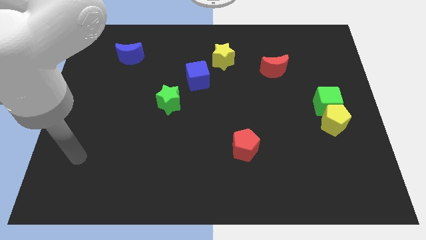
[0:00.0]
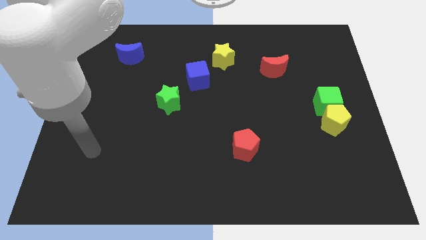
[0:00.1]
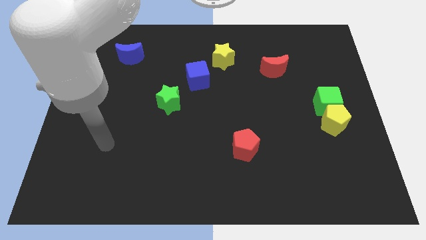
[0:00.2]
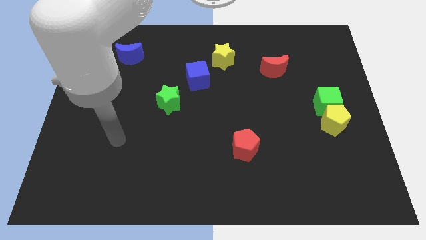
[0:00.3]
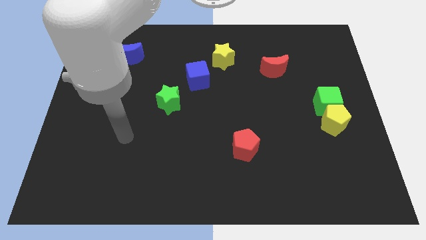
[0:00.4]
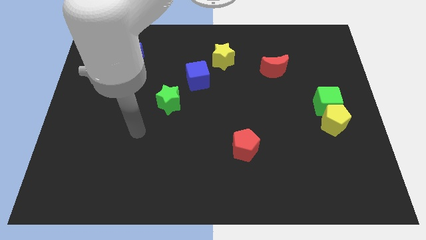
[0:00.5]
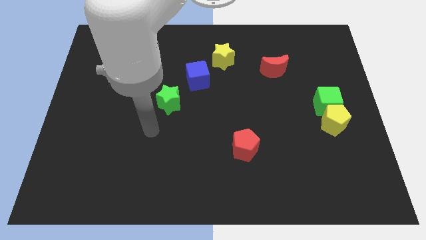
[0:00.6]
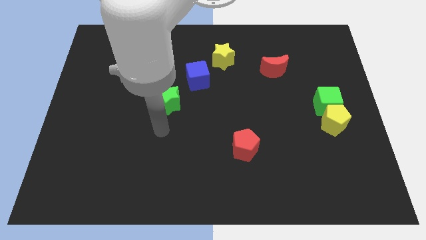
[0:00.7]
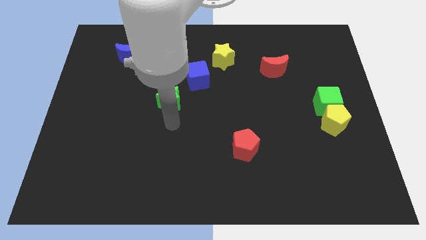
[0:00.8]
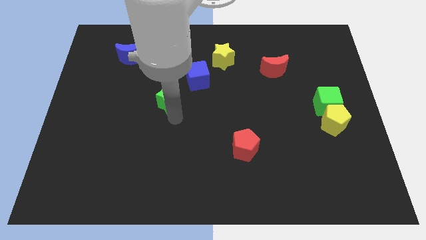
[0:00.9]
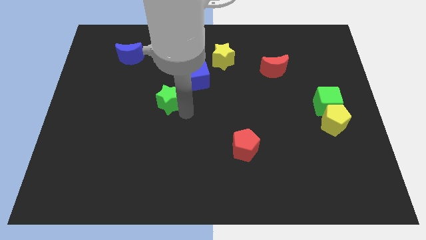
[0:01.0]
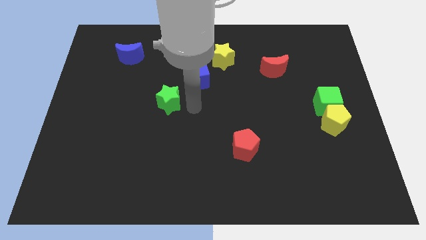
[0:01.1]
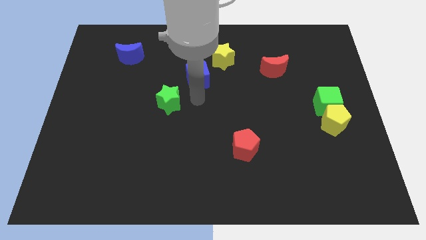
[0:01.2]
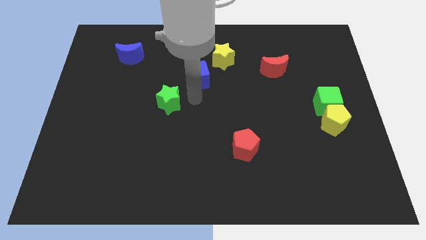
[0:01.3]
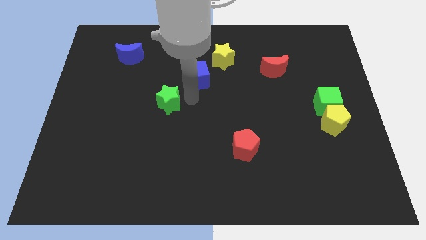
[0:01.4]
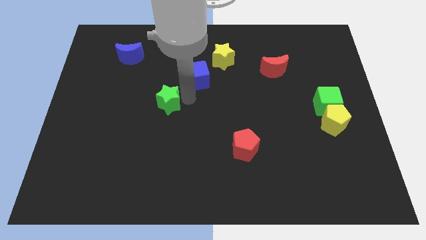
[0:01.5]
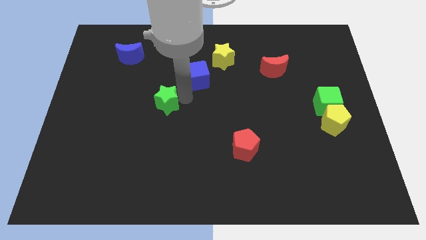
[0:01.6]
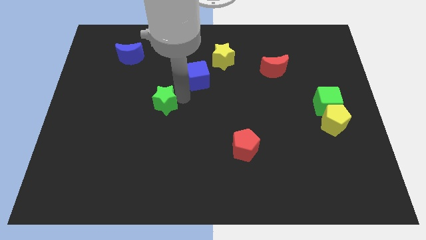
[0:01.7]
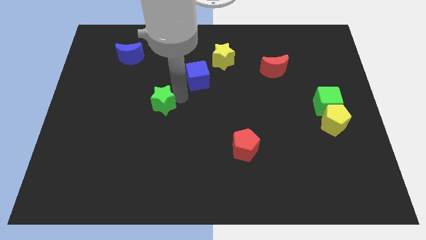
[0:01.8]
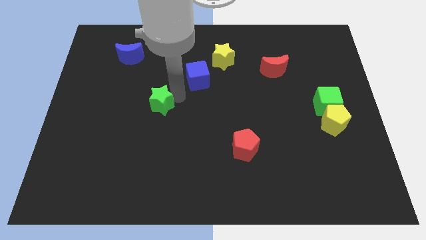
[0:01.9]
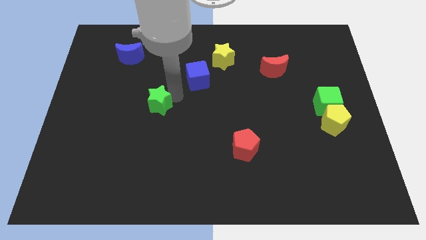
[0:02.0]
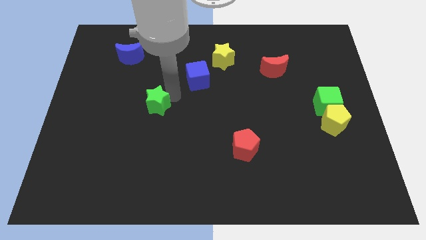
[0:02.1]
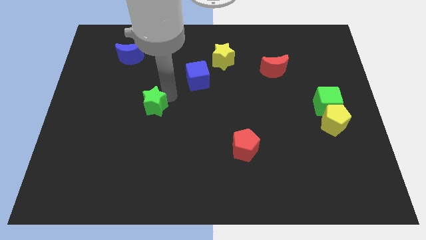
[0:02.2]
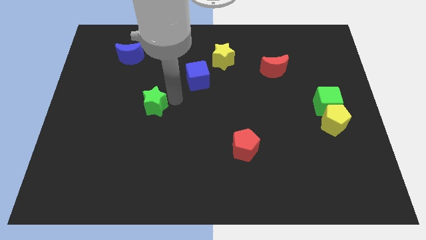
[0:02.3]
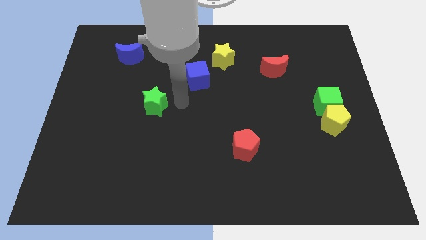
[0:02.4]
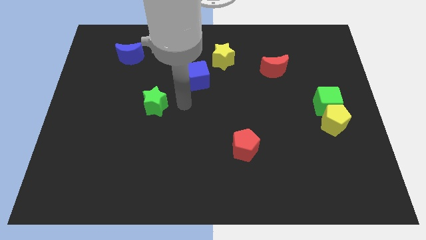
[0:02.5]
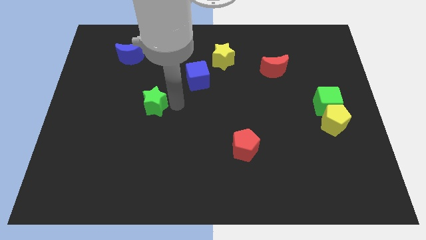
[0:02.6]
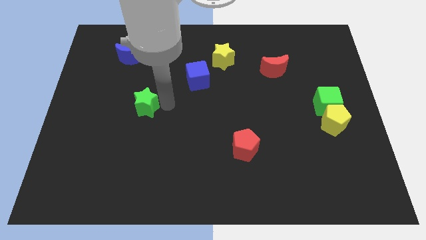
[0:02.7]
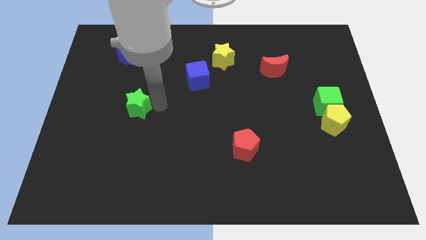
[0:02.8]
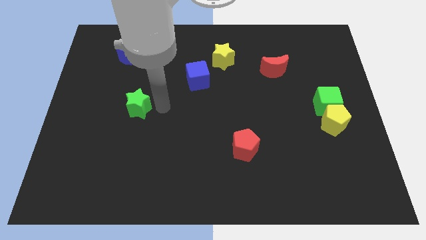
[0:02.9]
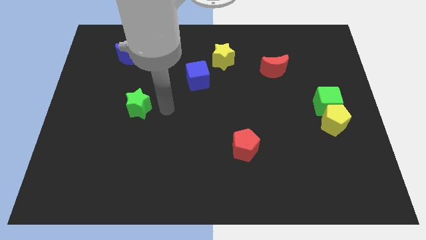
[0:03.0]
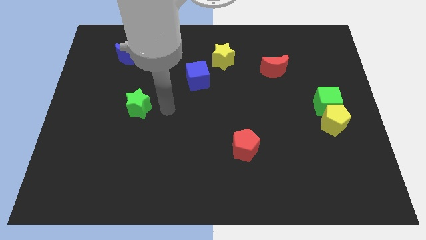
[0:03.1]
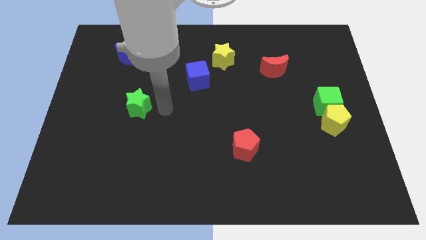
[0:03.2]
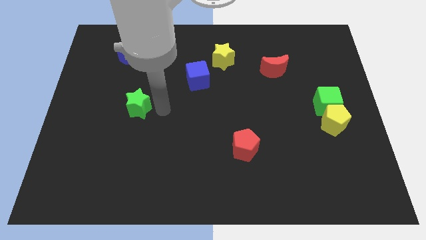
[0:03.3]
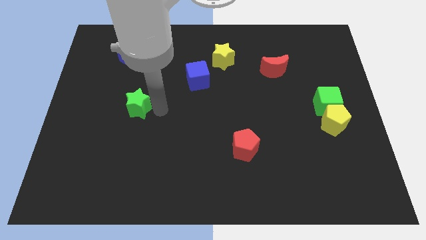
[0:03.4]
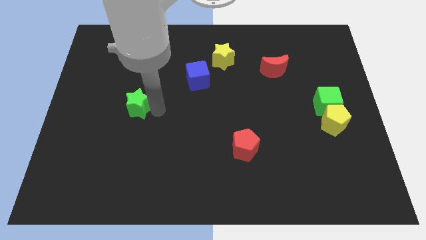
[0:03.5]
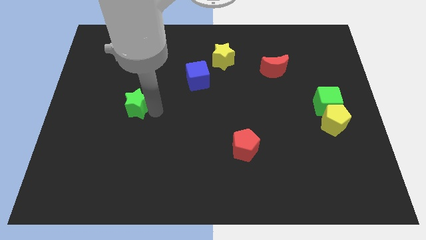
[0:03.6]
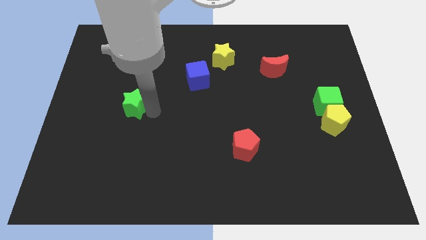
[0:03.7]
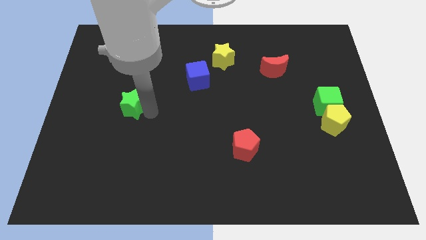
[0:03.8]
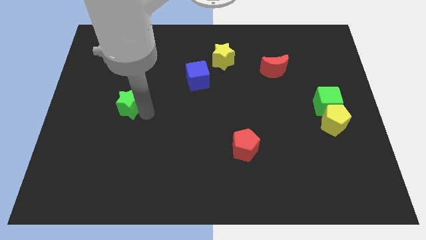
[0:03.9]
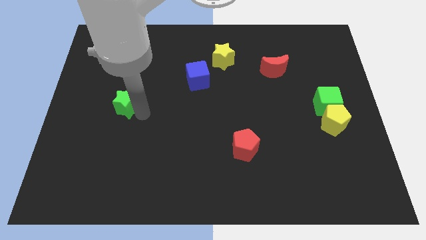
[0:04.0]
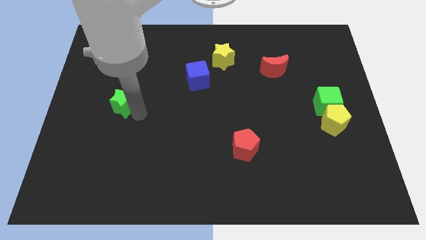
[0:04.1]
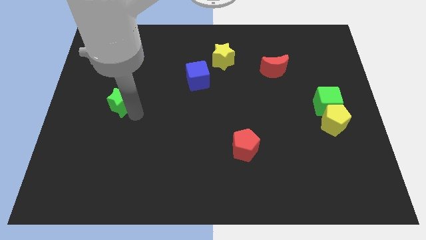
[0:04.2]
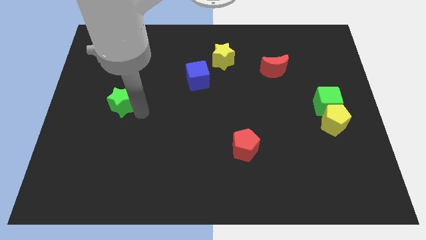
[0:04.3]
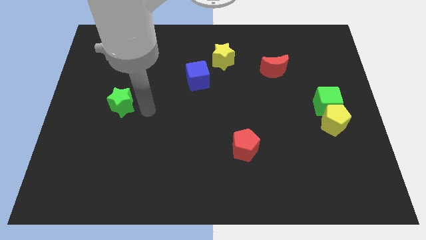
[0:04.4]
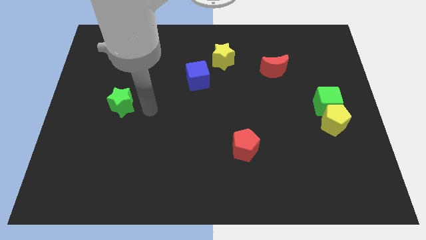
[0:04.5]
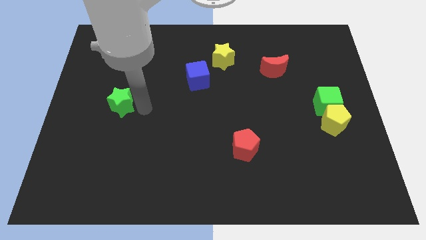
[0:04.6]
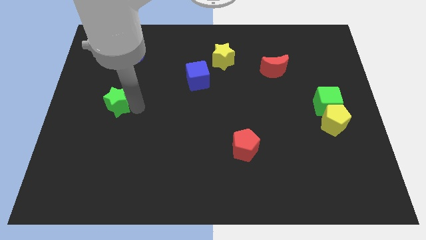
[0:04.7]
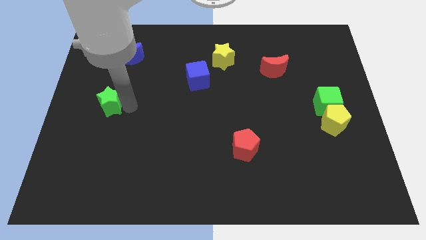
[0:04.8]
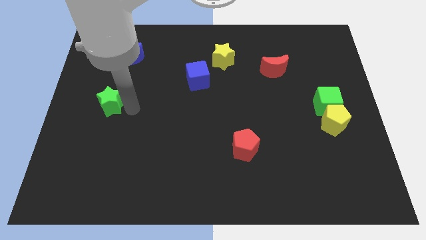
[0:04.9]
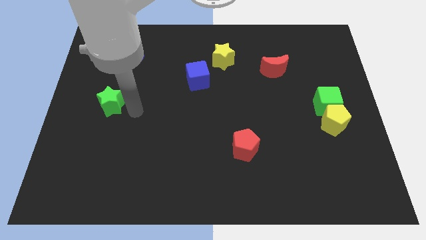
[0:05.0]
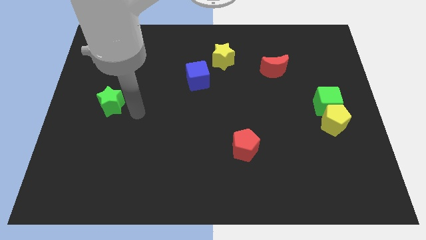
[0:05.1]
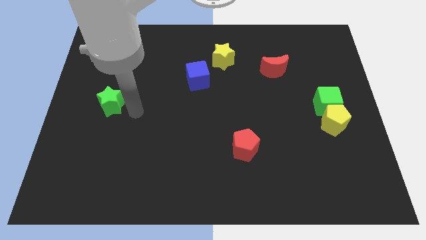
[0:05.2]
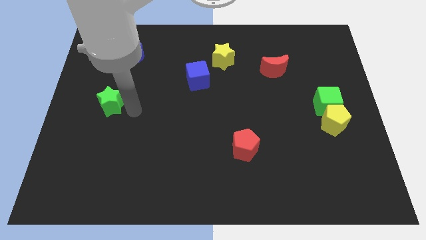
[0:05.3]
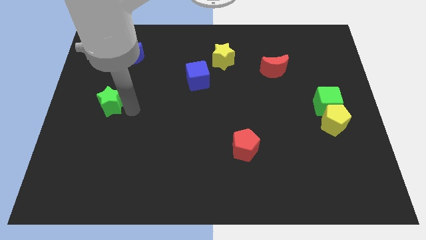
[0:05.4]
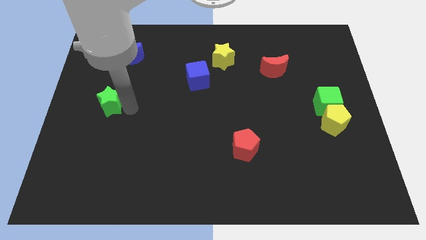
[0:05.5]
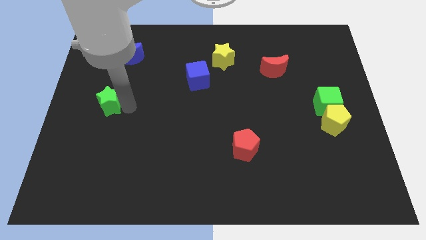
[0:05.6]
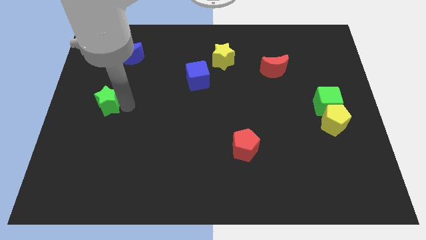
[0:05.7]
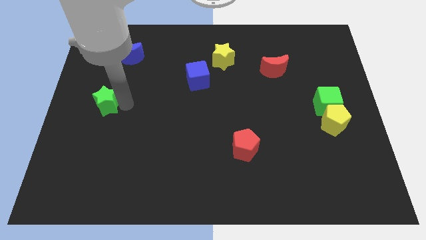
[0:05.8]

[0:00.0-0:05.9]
put the green star to the center left
